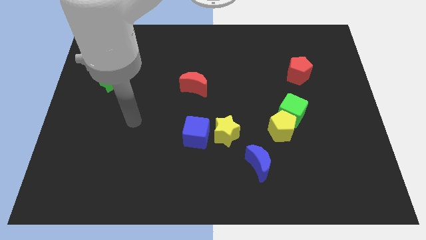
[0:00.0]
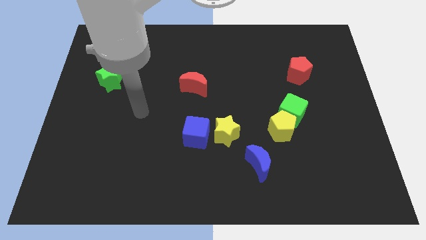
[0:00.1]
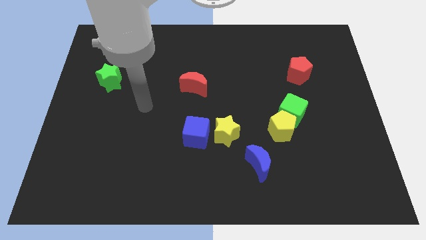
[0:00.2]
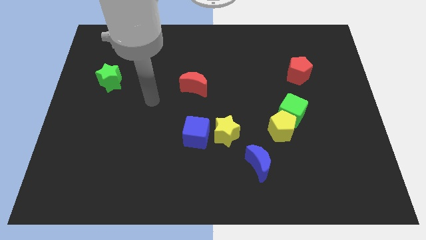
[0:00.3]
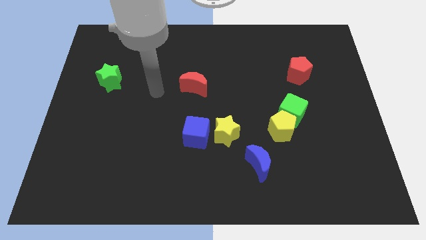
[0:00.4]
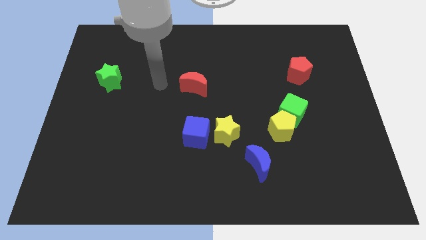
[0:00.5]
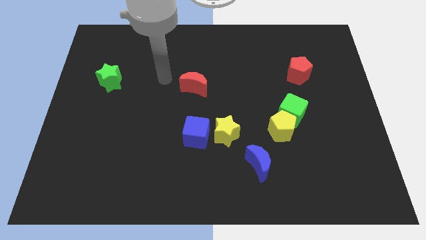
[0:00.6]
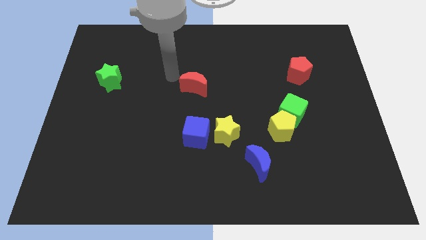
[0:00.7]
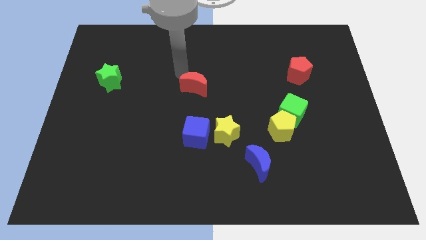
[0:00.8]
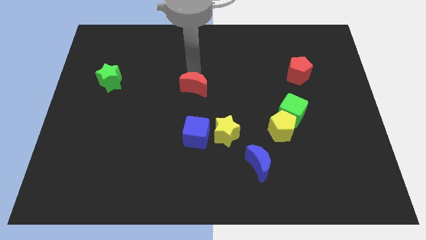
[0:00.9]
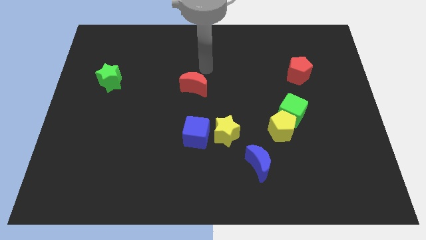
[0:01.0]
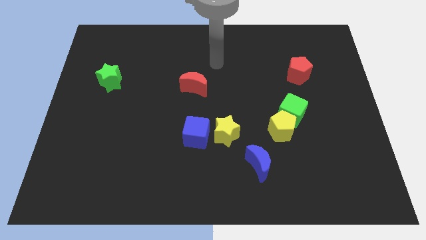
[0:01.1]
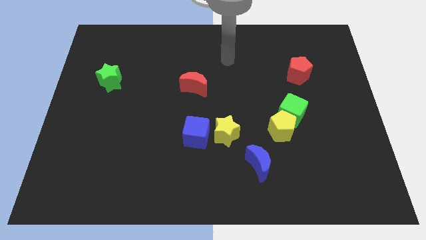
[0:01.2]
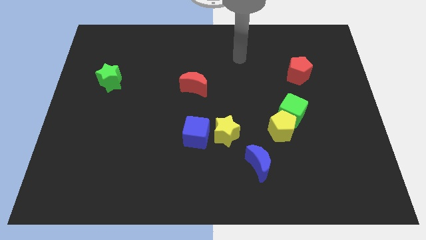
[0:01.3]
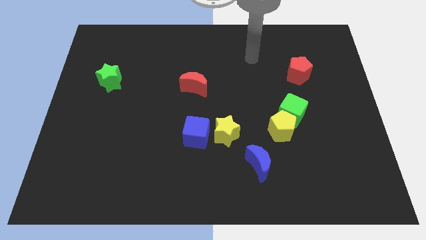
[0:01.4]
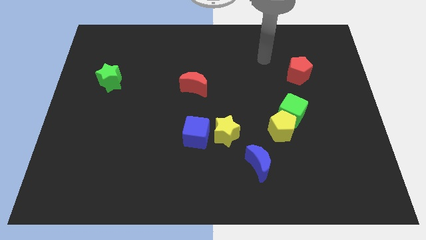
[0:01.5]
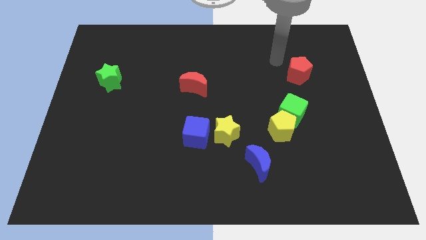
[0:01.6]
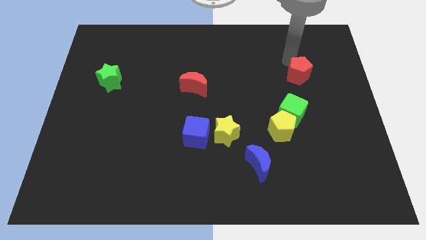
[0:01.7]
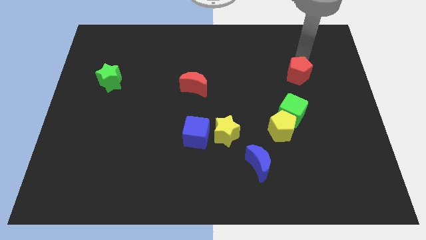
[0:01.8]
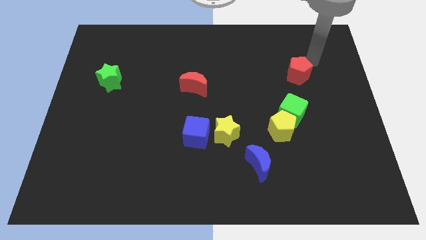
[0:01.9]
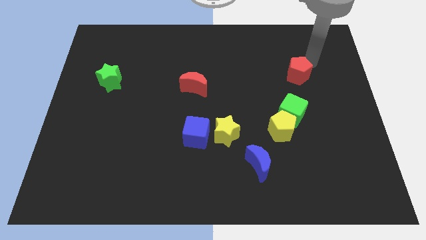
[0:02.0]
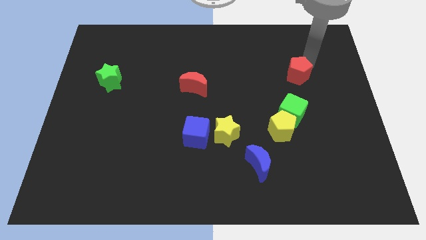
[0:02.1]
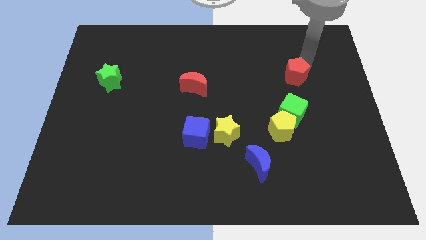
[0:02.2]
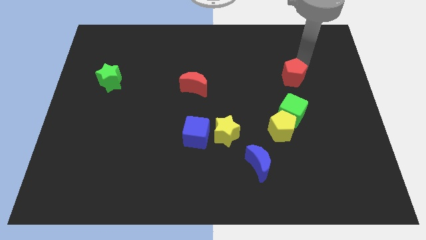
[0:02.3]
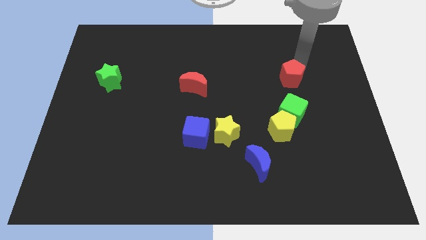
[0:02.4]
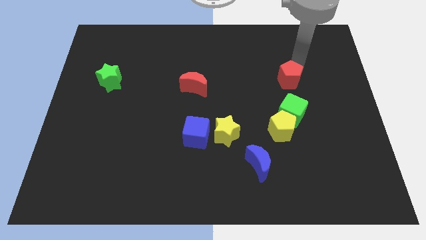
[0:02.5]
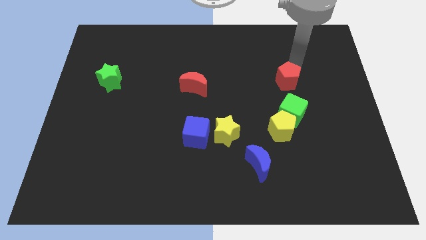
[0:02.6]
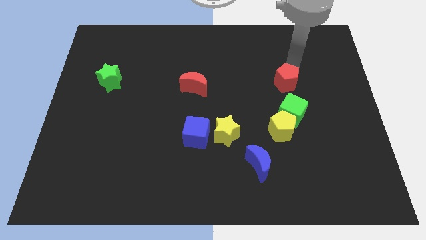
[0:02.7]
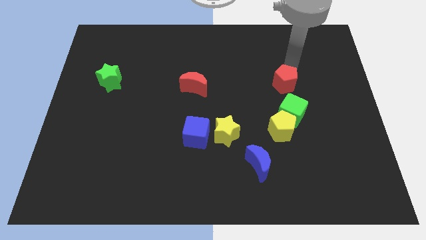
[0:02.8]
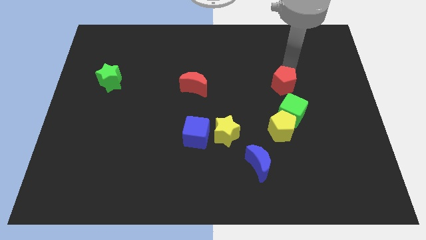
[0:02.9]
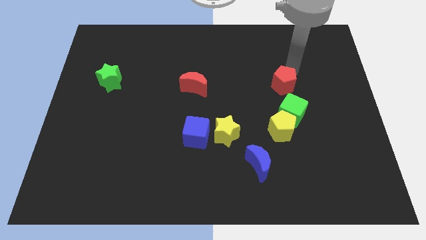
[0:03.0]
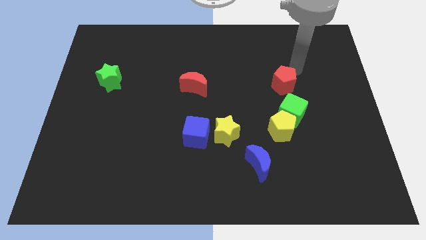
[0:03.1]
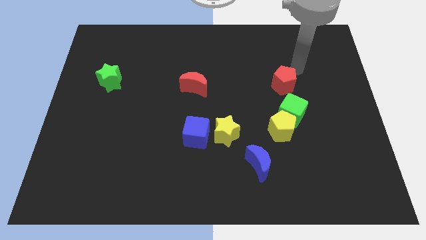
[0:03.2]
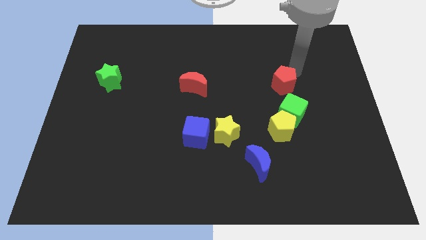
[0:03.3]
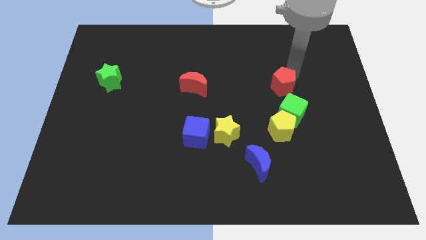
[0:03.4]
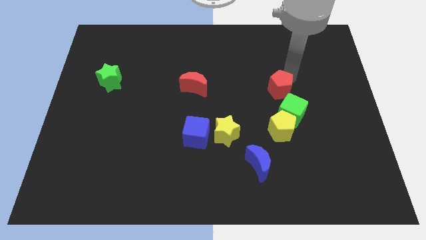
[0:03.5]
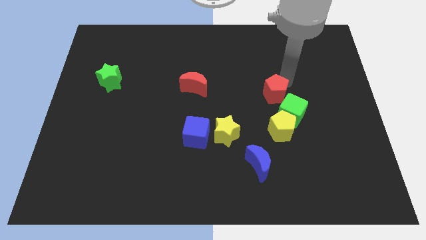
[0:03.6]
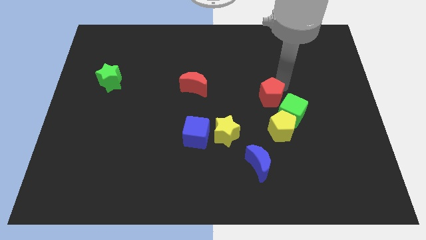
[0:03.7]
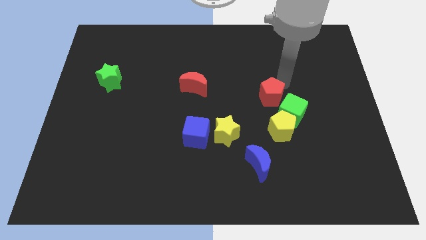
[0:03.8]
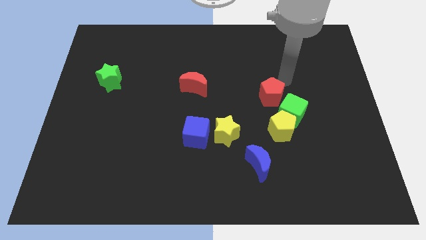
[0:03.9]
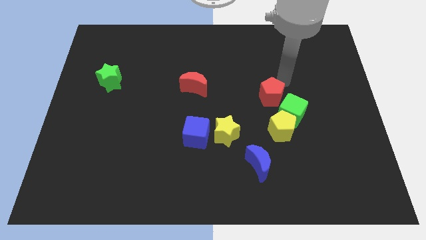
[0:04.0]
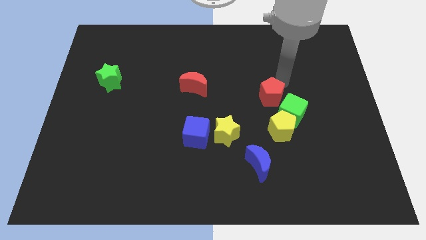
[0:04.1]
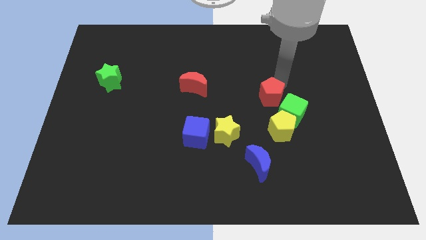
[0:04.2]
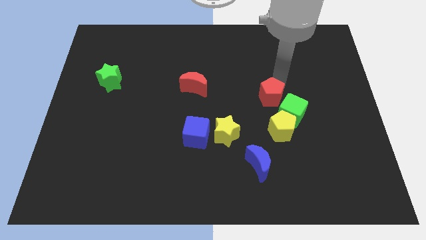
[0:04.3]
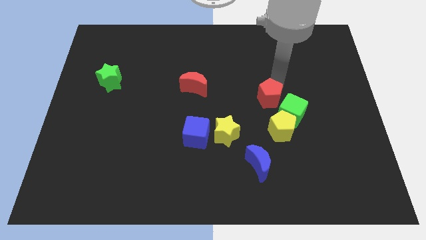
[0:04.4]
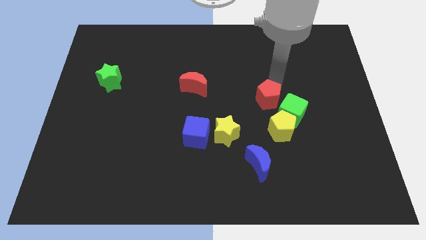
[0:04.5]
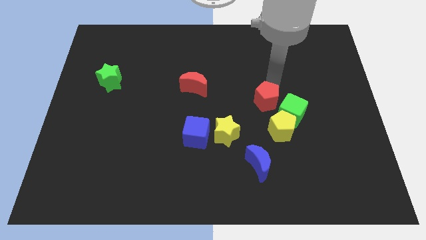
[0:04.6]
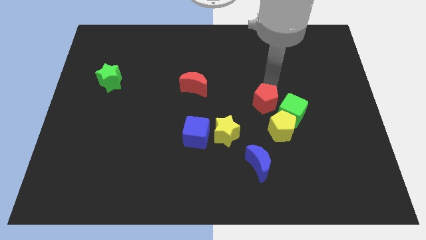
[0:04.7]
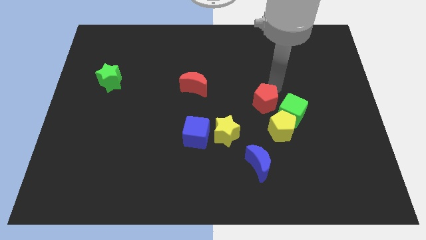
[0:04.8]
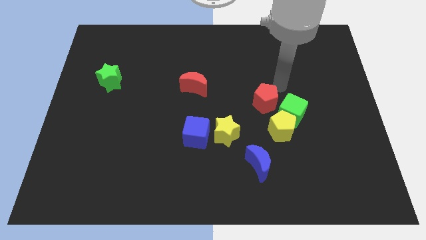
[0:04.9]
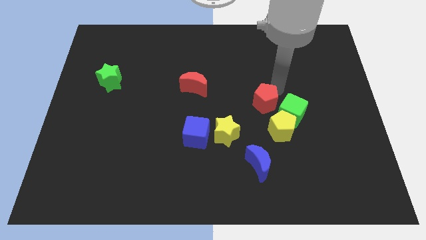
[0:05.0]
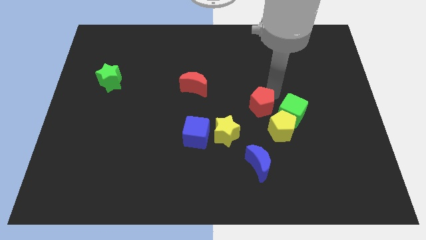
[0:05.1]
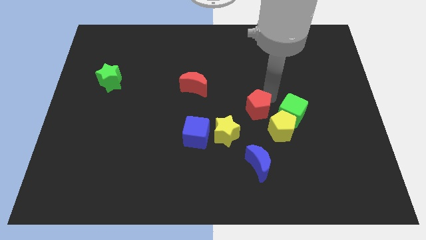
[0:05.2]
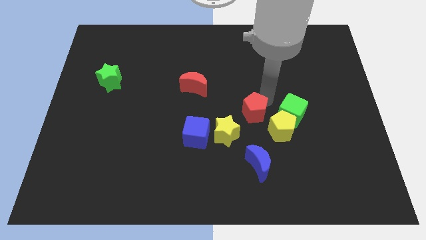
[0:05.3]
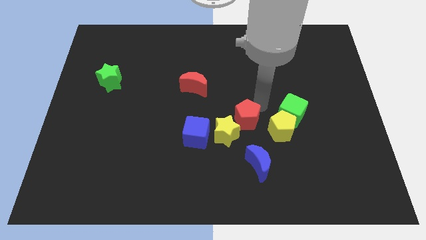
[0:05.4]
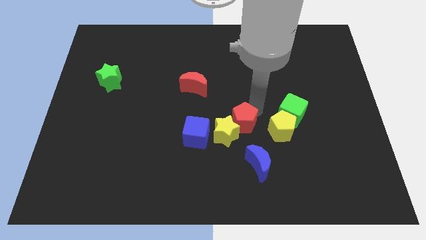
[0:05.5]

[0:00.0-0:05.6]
put the red pentagon close to the yellow star

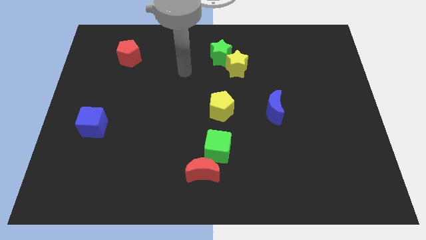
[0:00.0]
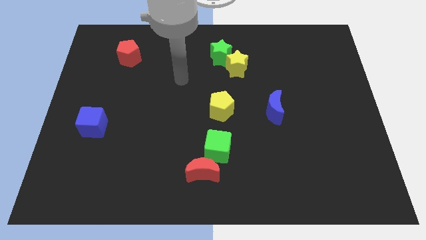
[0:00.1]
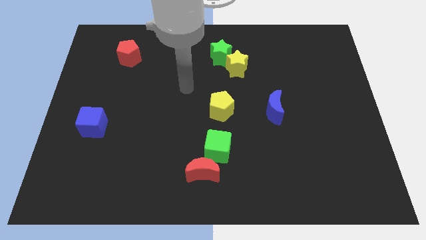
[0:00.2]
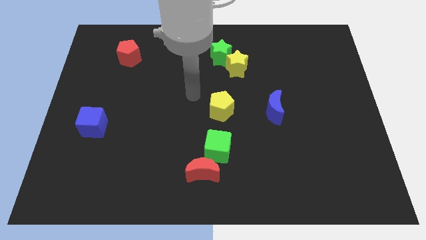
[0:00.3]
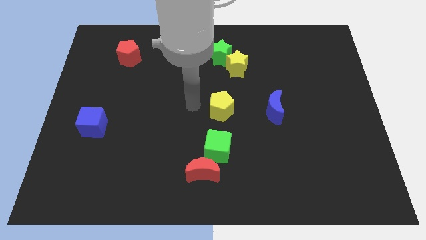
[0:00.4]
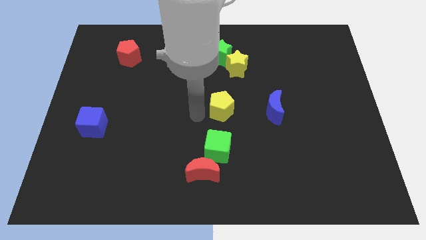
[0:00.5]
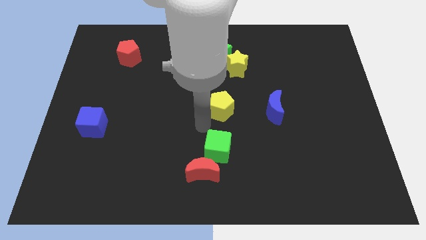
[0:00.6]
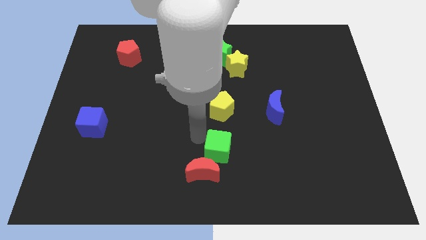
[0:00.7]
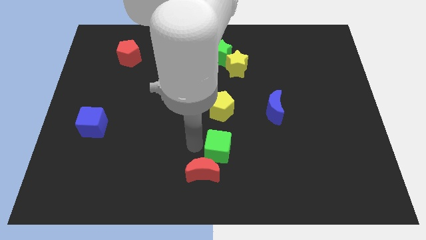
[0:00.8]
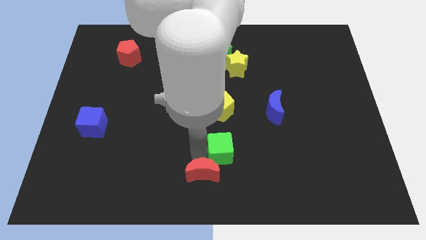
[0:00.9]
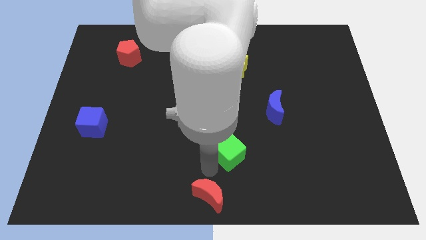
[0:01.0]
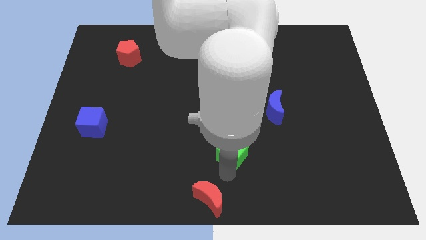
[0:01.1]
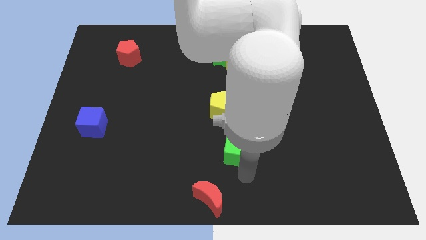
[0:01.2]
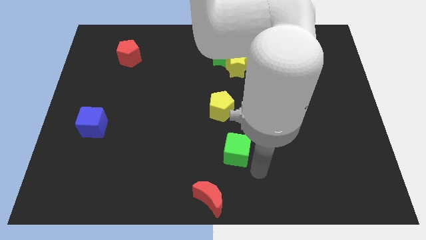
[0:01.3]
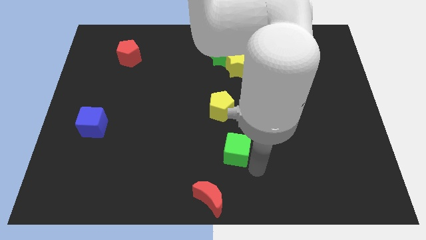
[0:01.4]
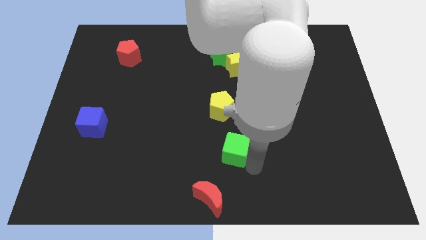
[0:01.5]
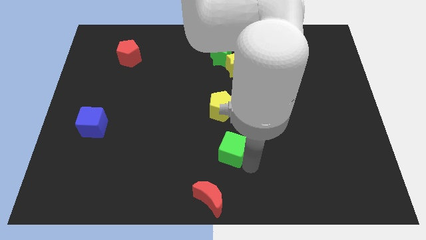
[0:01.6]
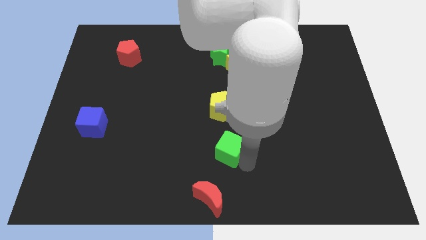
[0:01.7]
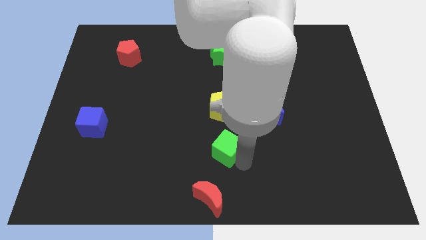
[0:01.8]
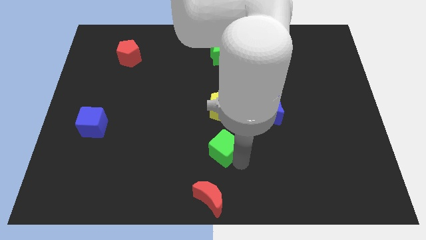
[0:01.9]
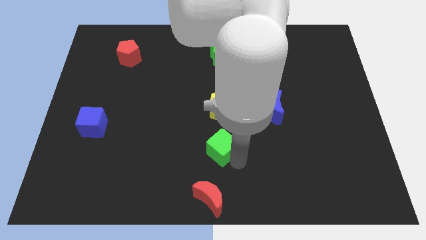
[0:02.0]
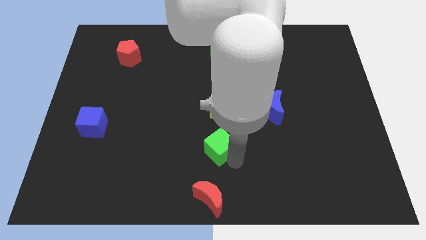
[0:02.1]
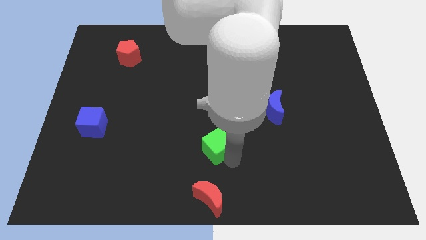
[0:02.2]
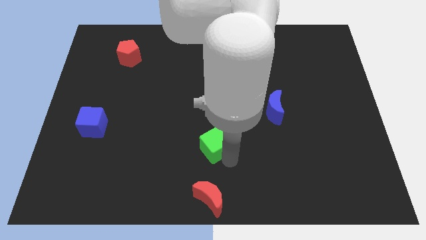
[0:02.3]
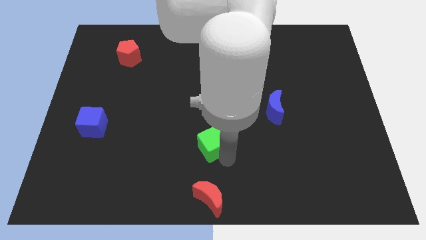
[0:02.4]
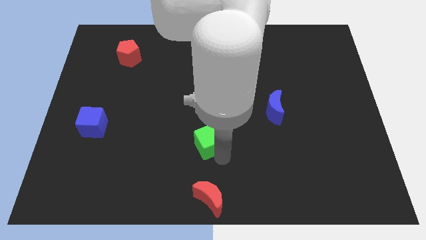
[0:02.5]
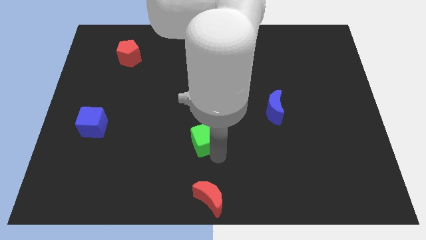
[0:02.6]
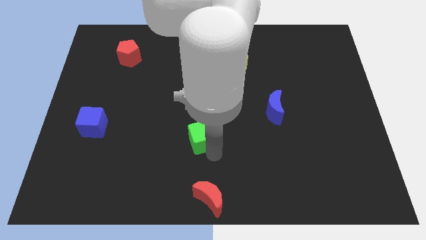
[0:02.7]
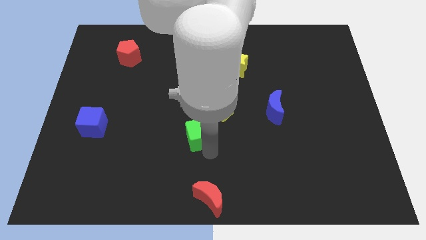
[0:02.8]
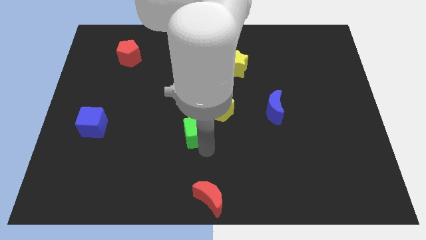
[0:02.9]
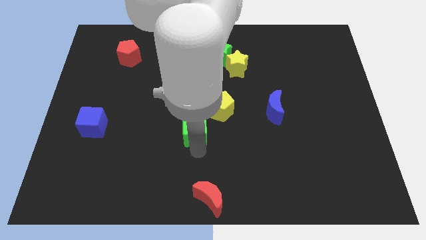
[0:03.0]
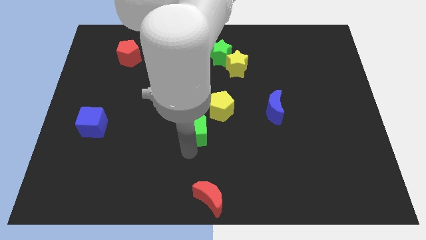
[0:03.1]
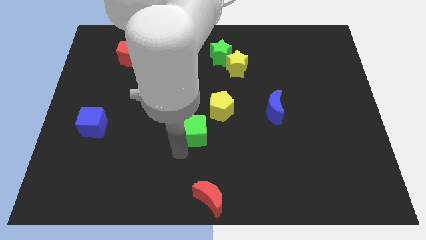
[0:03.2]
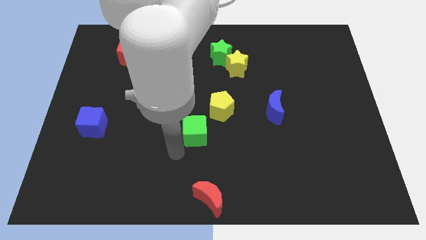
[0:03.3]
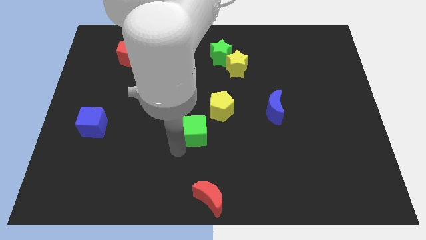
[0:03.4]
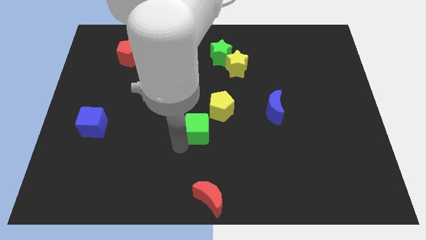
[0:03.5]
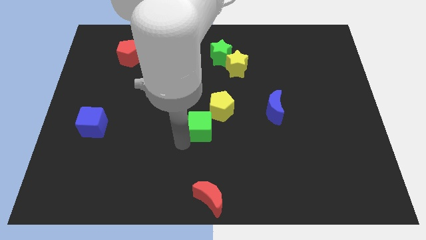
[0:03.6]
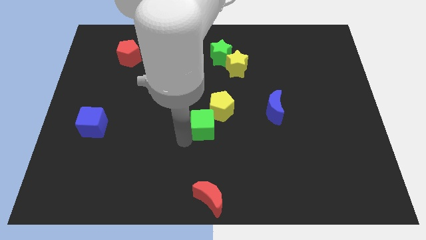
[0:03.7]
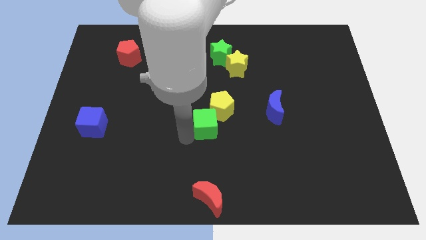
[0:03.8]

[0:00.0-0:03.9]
move the green cube towards the yellow pentagon
